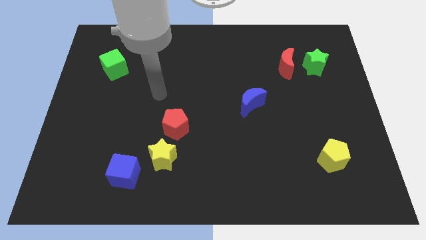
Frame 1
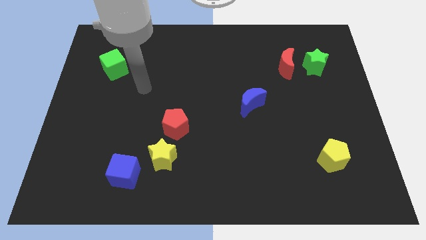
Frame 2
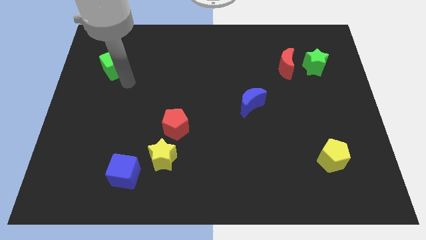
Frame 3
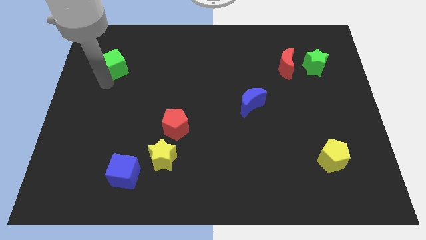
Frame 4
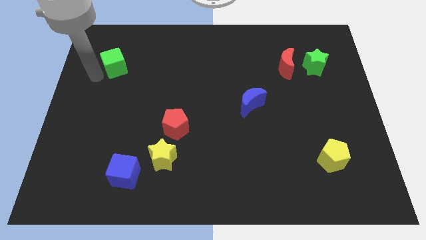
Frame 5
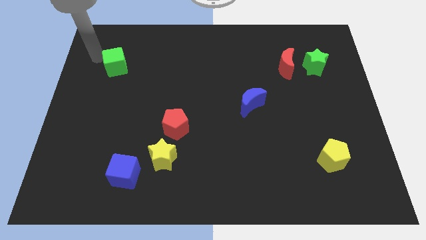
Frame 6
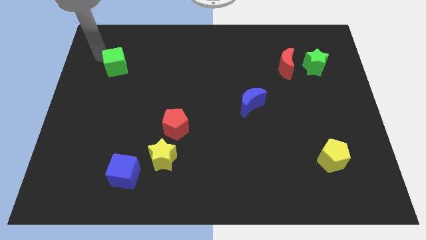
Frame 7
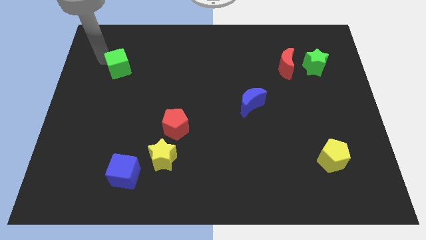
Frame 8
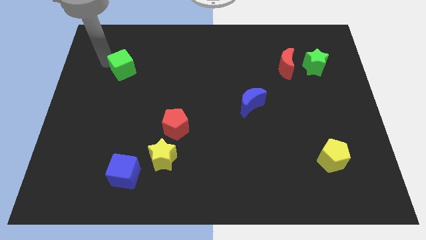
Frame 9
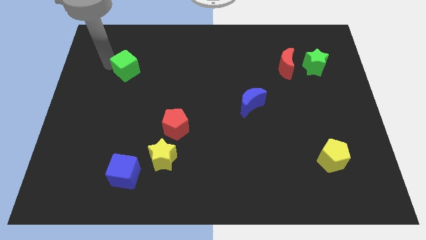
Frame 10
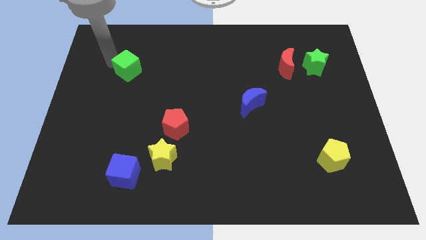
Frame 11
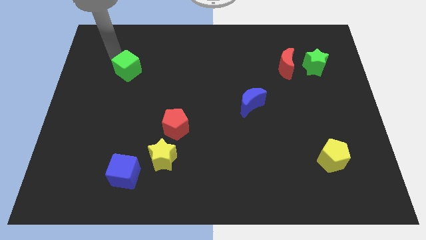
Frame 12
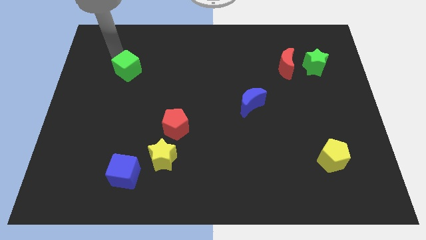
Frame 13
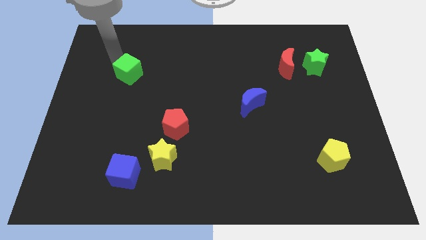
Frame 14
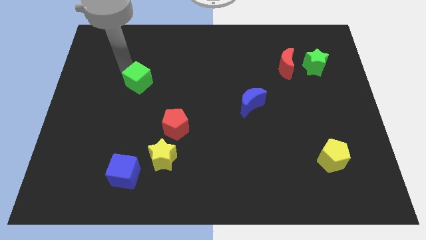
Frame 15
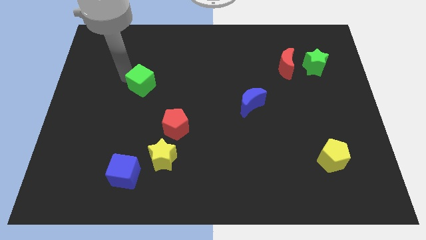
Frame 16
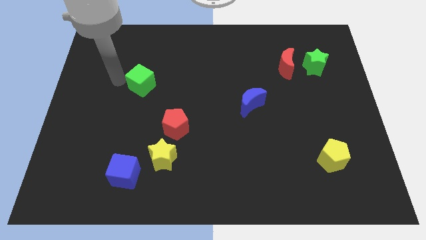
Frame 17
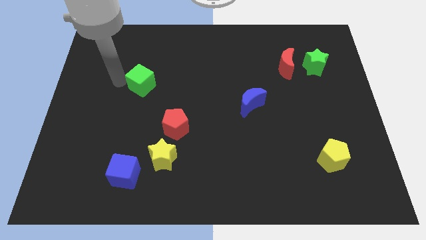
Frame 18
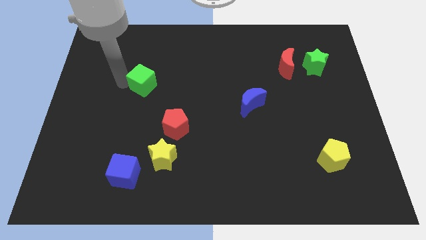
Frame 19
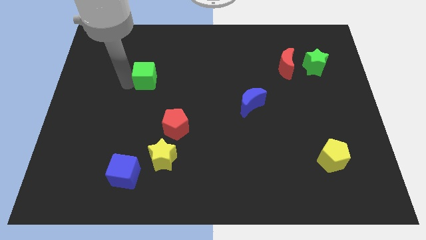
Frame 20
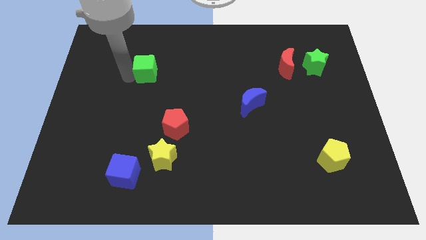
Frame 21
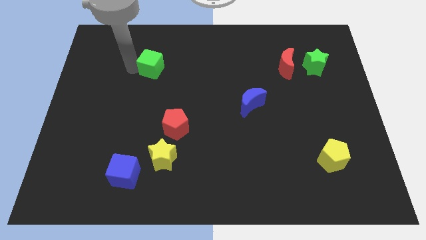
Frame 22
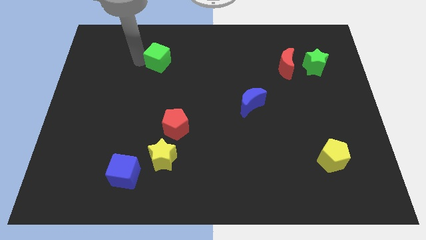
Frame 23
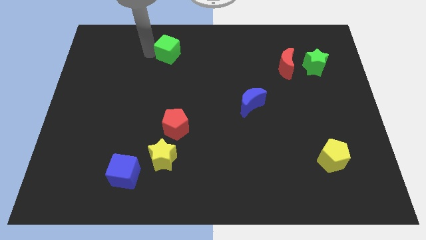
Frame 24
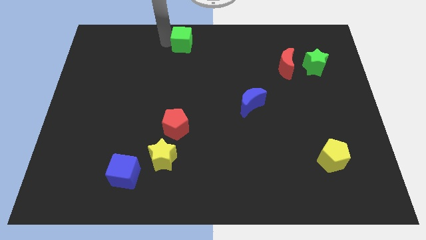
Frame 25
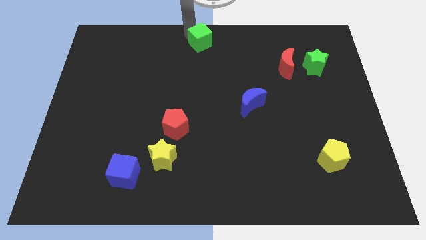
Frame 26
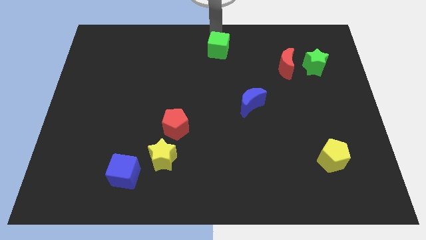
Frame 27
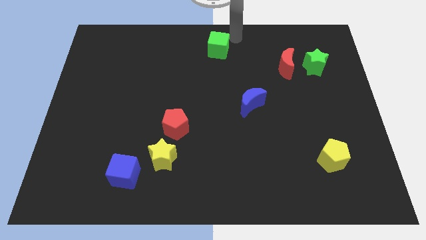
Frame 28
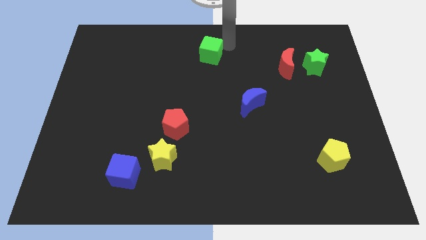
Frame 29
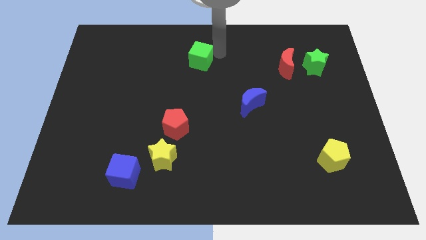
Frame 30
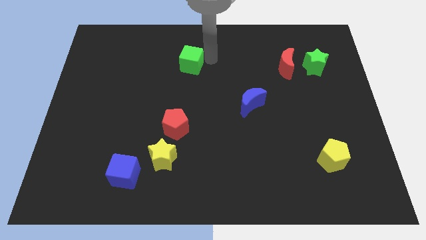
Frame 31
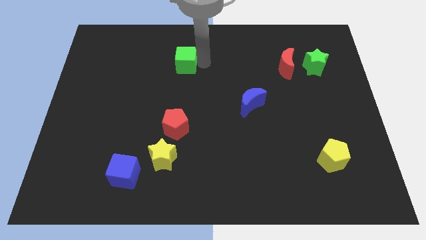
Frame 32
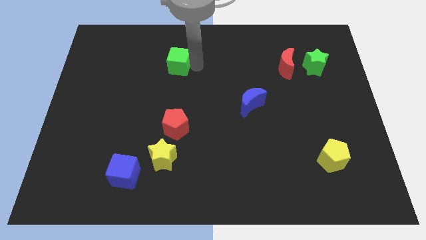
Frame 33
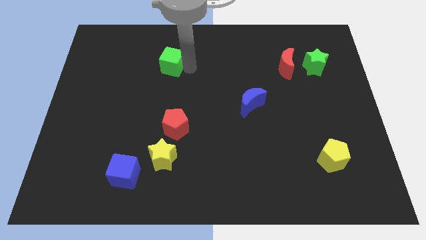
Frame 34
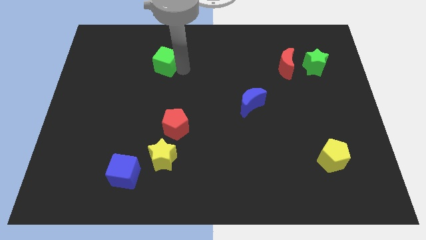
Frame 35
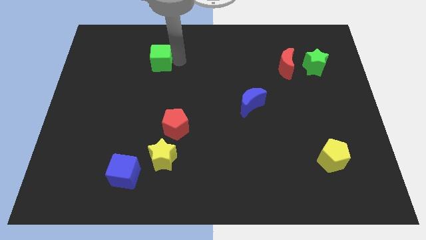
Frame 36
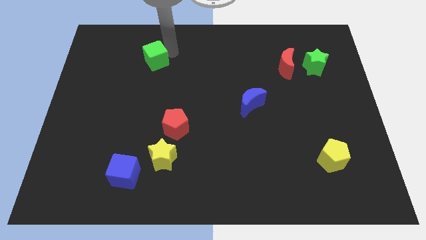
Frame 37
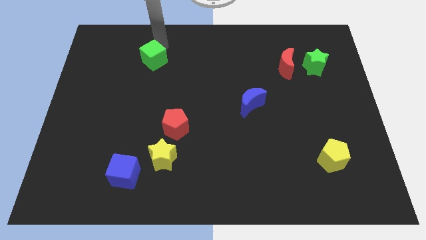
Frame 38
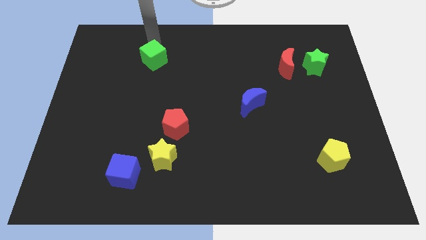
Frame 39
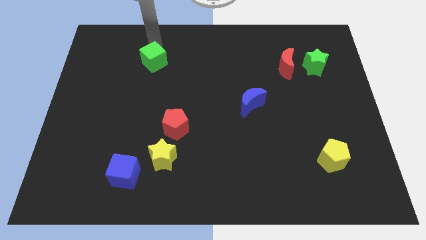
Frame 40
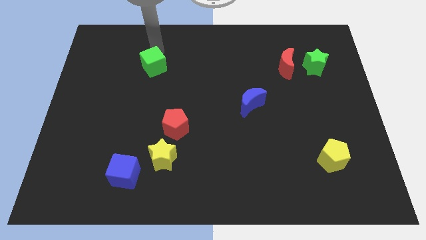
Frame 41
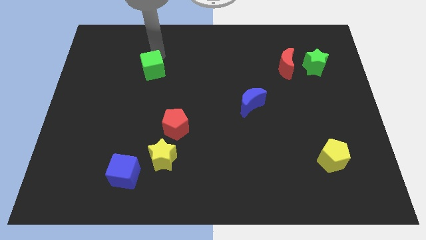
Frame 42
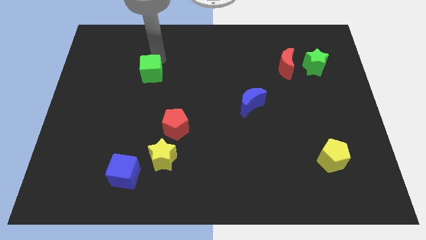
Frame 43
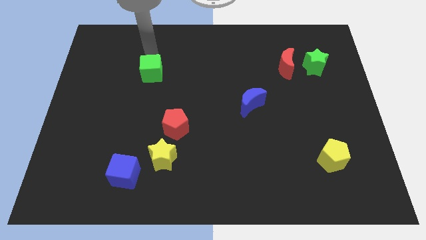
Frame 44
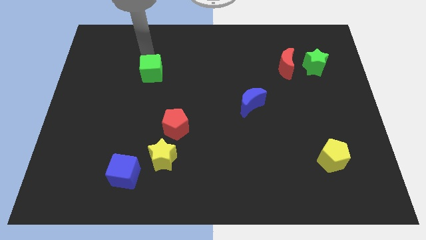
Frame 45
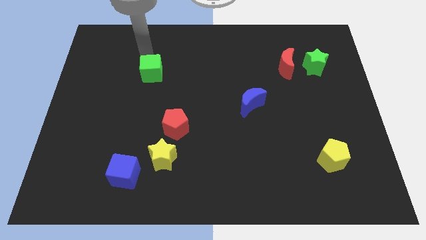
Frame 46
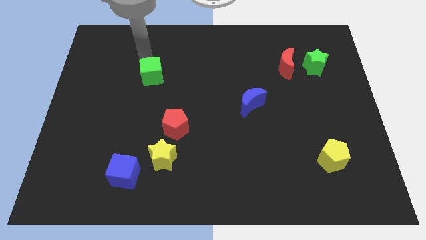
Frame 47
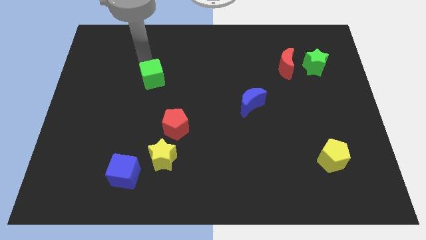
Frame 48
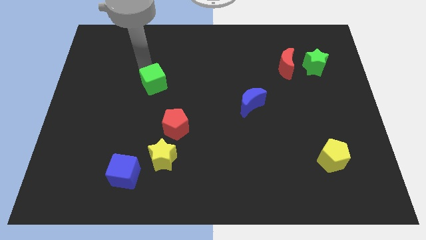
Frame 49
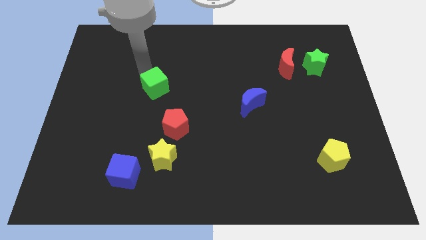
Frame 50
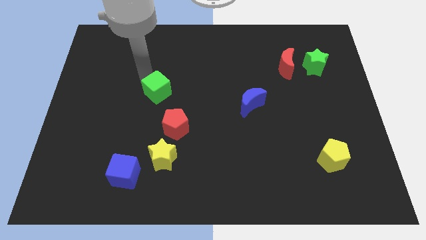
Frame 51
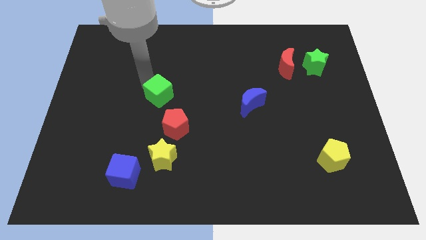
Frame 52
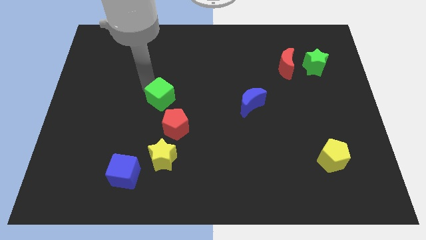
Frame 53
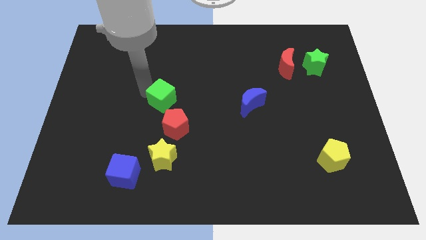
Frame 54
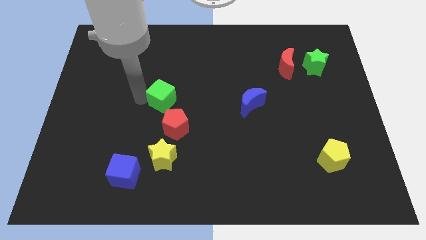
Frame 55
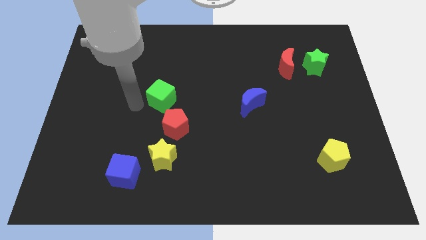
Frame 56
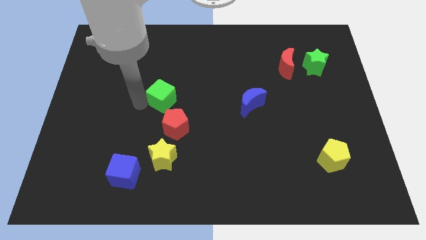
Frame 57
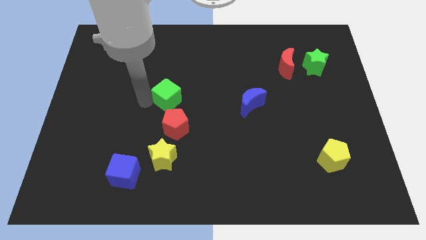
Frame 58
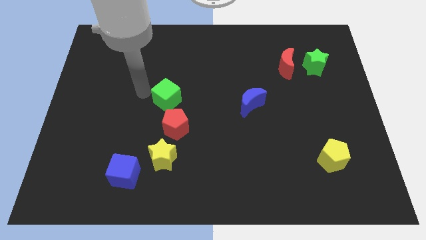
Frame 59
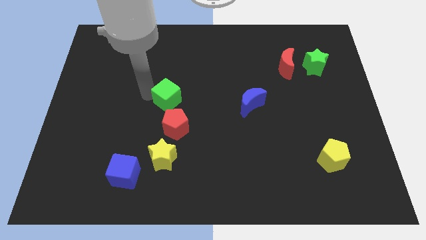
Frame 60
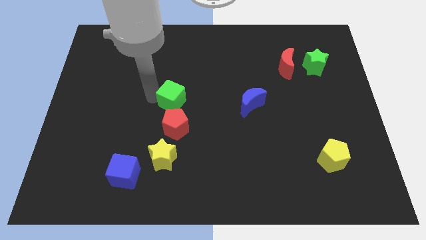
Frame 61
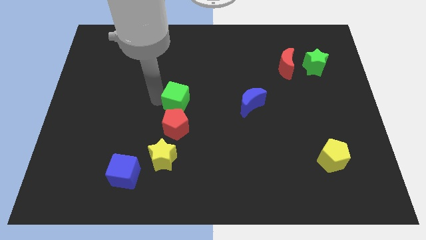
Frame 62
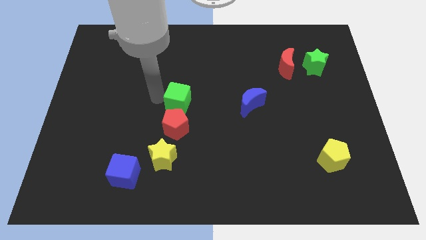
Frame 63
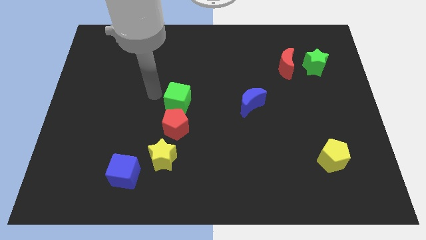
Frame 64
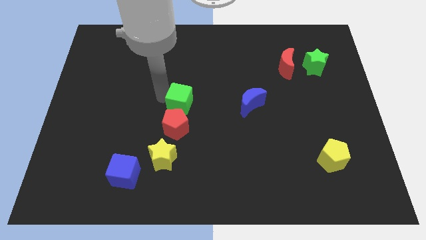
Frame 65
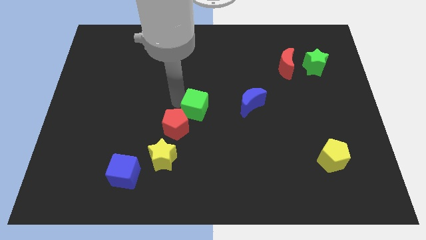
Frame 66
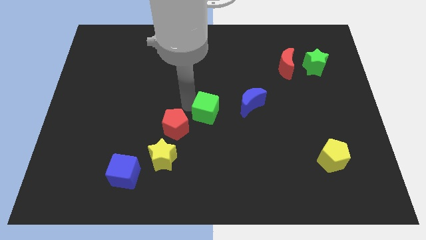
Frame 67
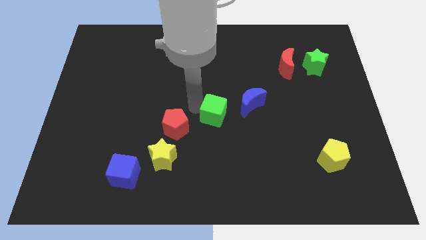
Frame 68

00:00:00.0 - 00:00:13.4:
push the green cube diagonally down and to the left of the blue moon

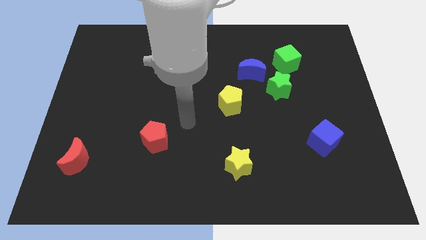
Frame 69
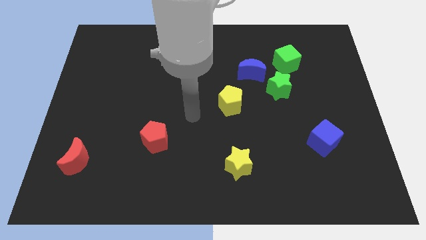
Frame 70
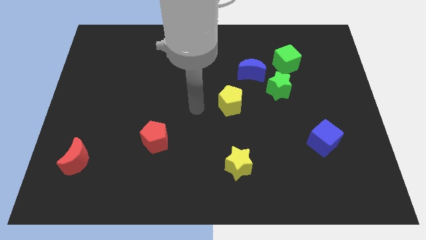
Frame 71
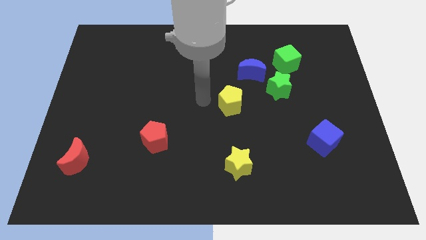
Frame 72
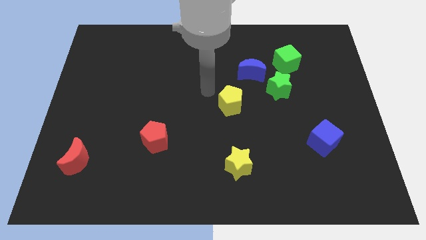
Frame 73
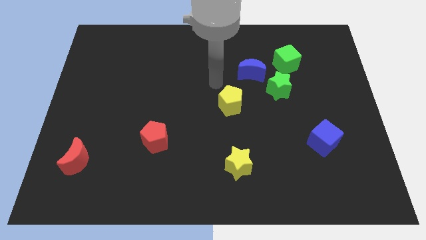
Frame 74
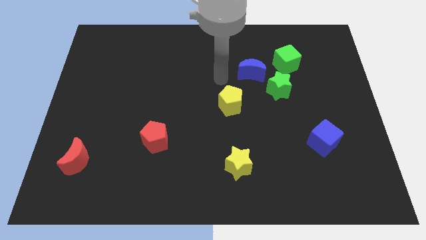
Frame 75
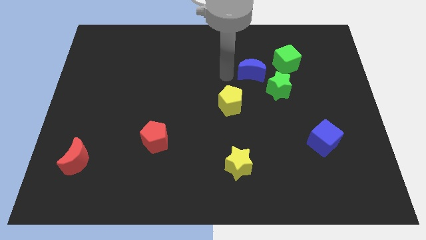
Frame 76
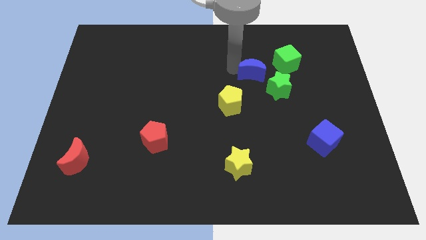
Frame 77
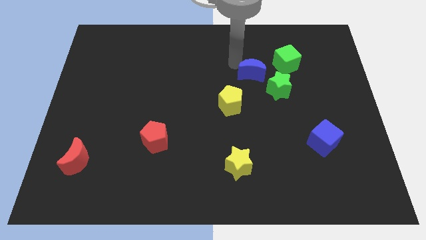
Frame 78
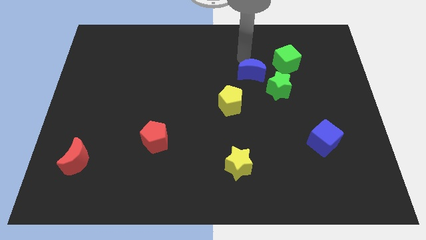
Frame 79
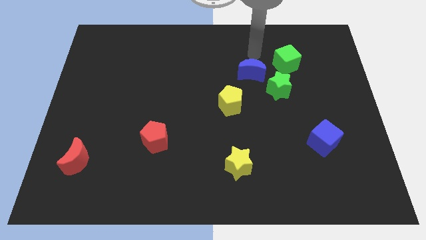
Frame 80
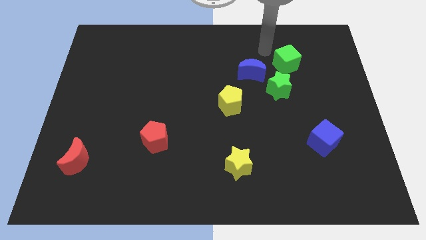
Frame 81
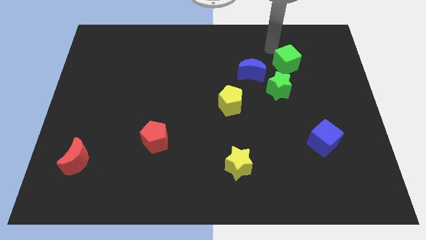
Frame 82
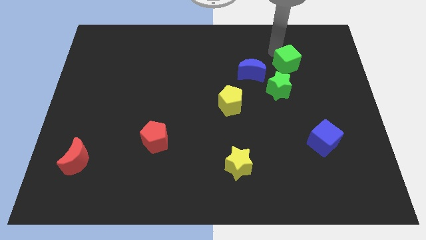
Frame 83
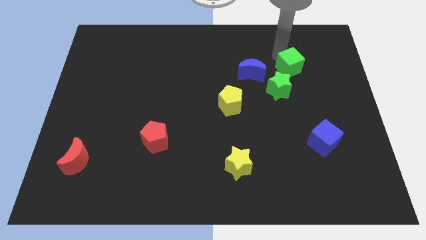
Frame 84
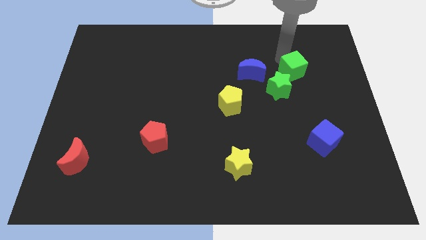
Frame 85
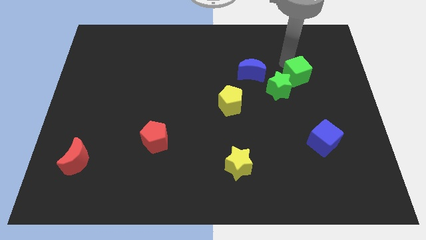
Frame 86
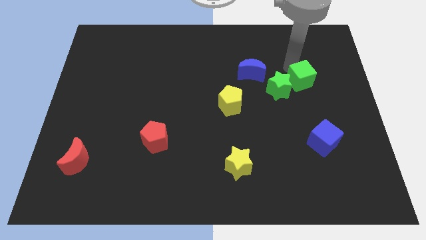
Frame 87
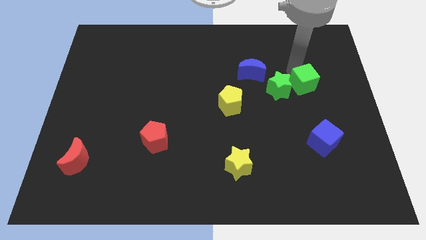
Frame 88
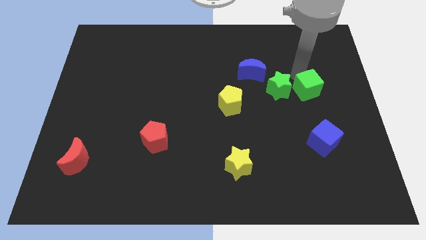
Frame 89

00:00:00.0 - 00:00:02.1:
slide the green cube to the top of the blue cube
